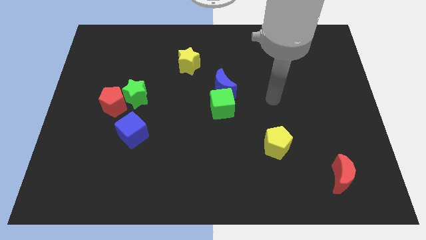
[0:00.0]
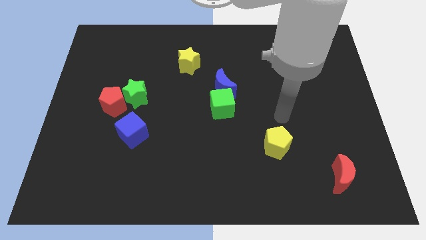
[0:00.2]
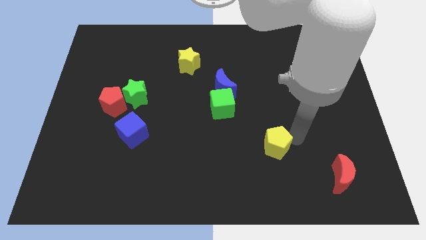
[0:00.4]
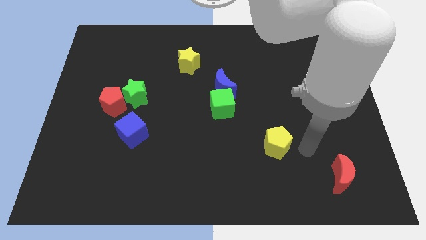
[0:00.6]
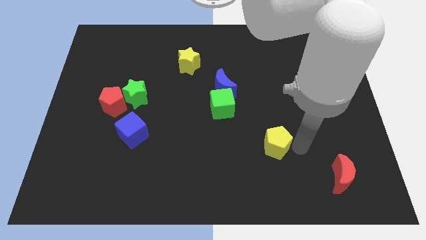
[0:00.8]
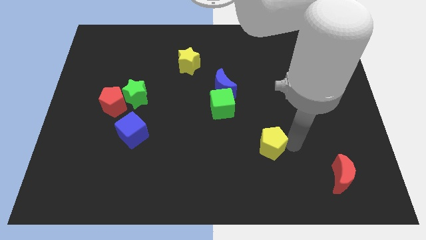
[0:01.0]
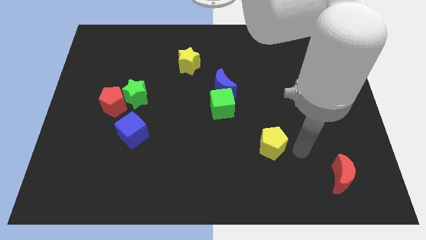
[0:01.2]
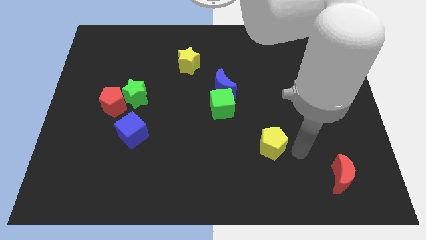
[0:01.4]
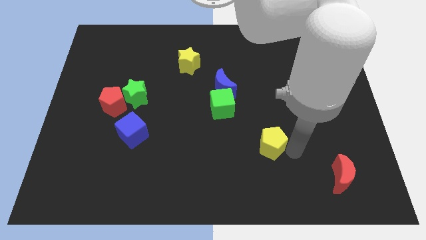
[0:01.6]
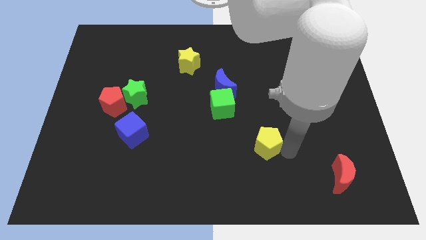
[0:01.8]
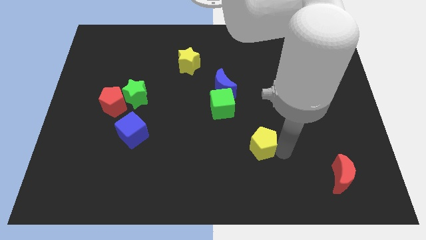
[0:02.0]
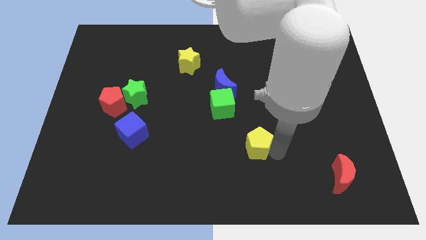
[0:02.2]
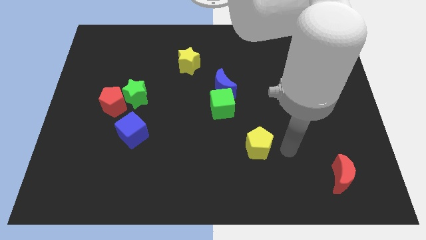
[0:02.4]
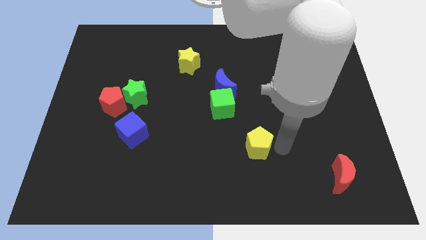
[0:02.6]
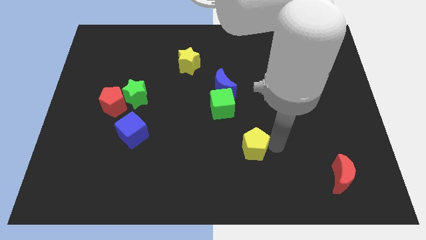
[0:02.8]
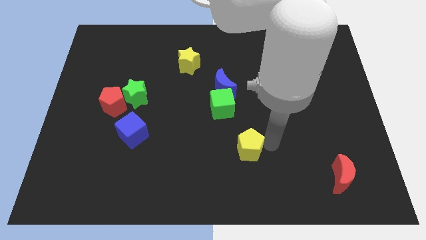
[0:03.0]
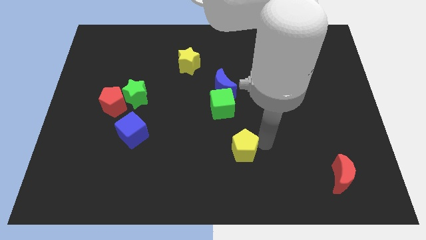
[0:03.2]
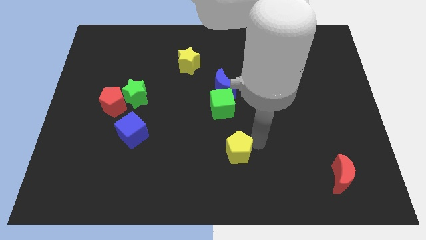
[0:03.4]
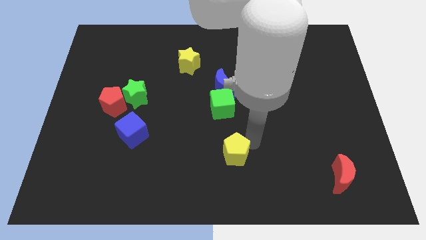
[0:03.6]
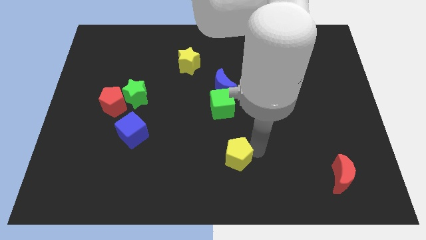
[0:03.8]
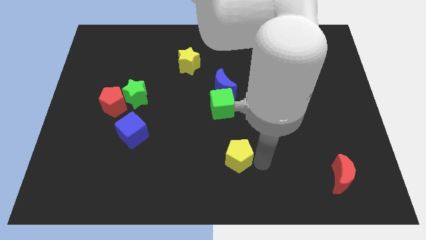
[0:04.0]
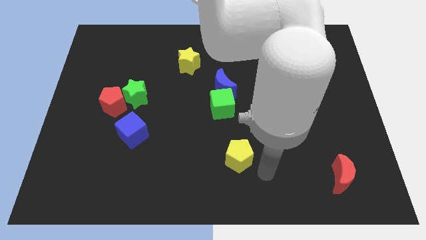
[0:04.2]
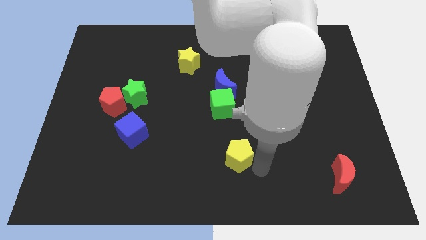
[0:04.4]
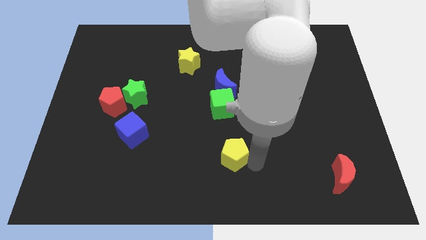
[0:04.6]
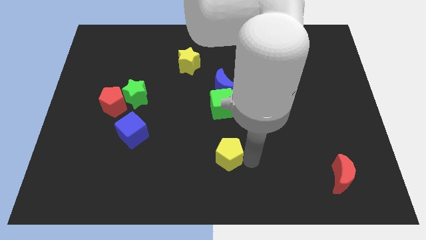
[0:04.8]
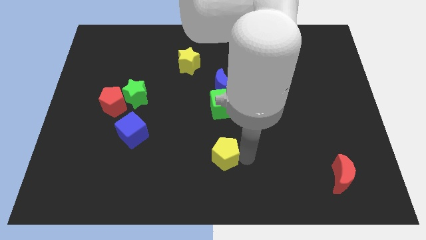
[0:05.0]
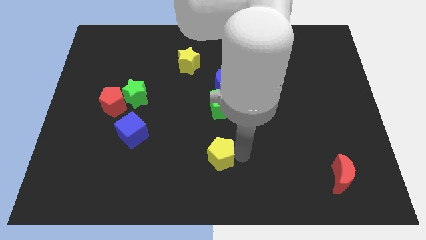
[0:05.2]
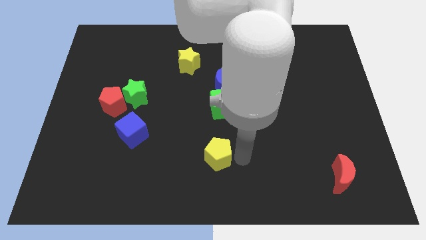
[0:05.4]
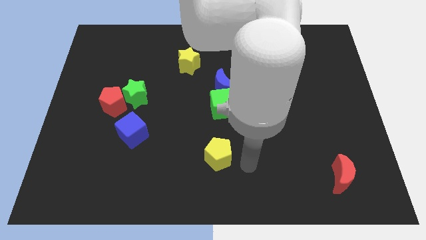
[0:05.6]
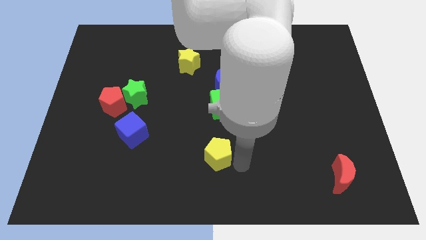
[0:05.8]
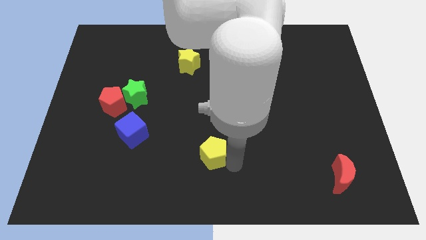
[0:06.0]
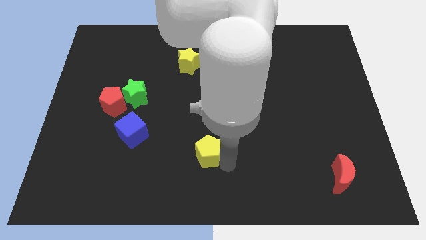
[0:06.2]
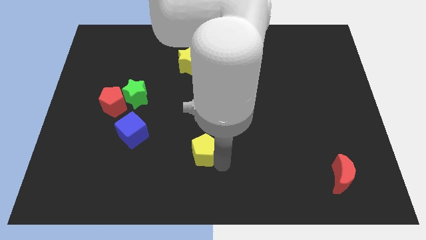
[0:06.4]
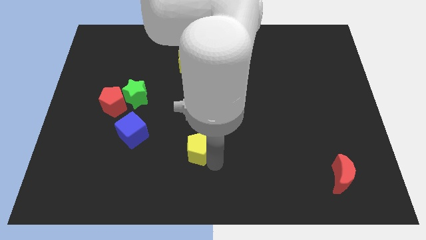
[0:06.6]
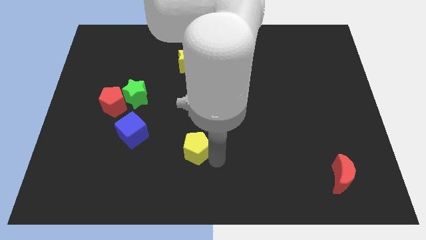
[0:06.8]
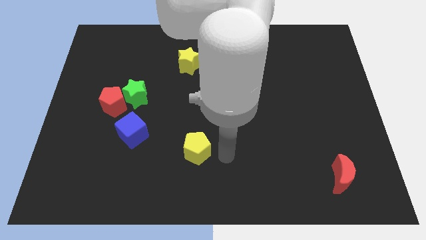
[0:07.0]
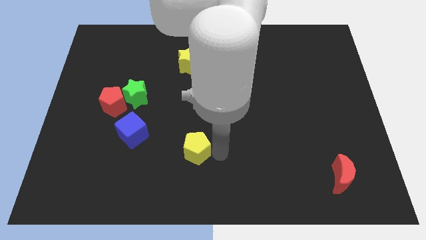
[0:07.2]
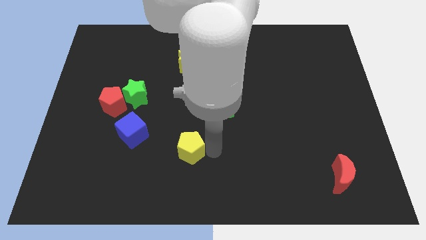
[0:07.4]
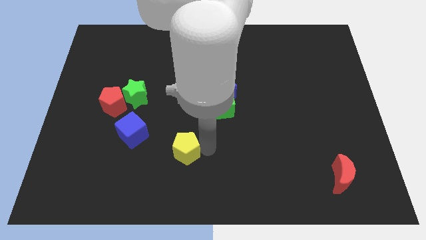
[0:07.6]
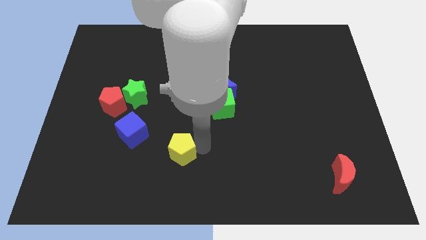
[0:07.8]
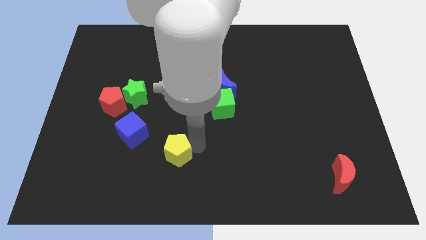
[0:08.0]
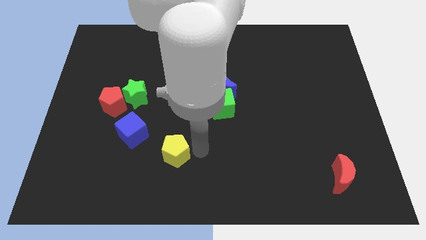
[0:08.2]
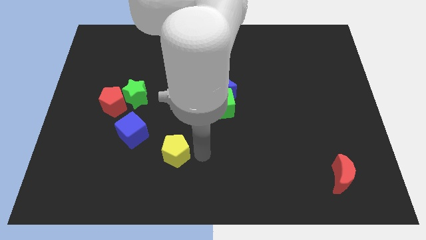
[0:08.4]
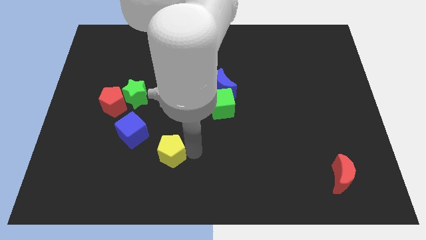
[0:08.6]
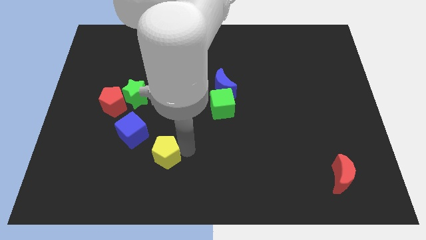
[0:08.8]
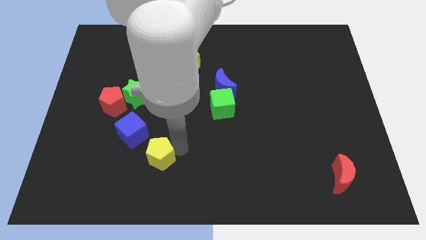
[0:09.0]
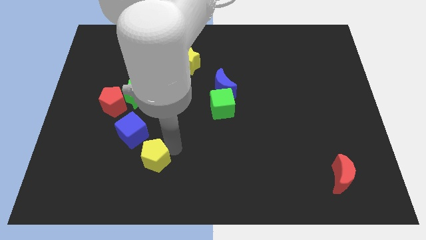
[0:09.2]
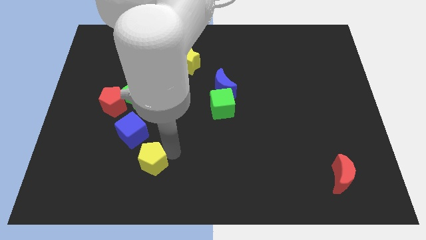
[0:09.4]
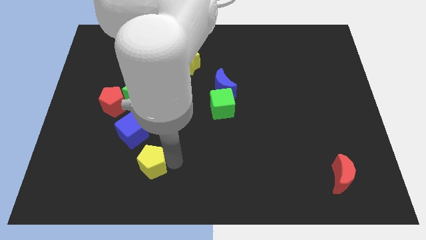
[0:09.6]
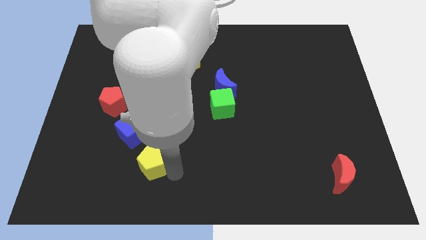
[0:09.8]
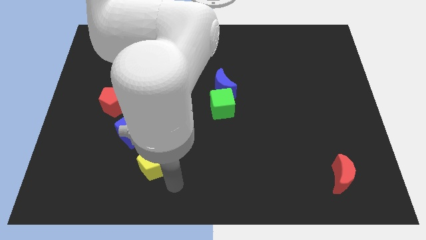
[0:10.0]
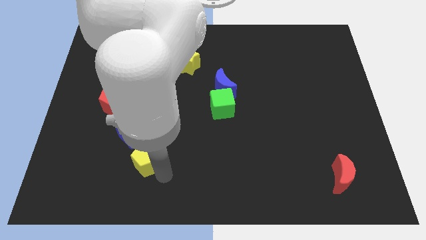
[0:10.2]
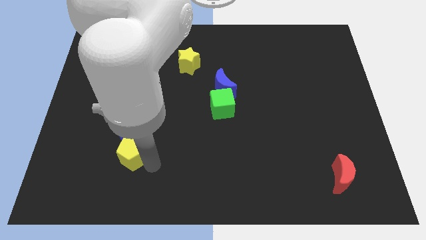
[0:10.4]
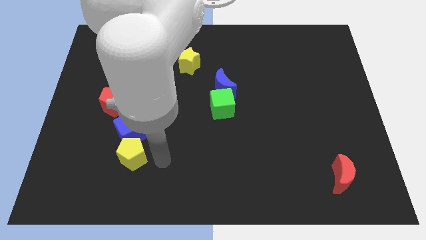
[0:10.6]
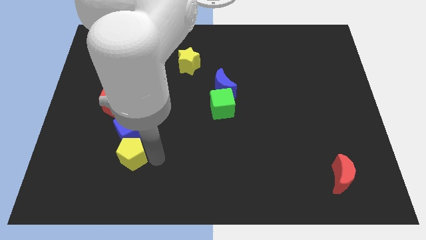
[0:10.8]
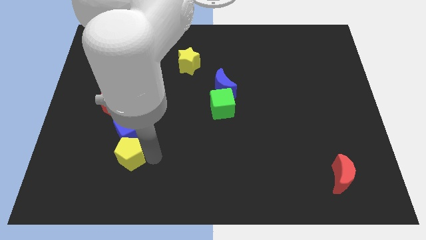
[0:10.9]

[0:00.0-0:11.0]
put the yellow pentagon diagonally down and to the left of the blue cube

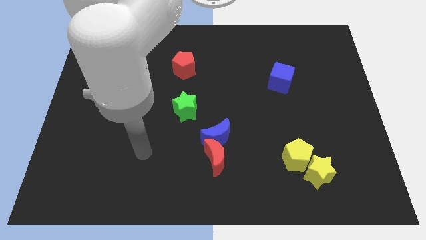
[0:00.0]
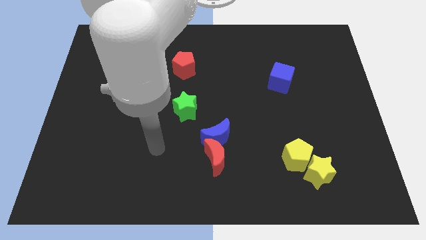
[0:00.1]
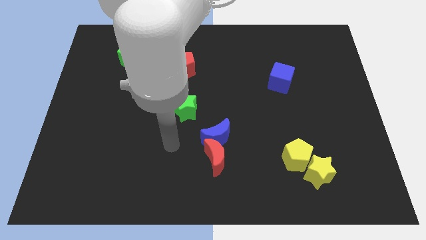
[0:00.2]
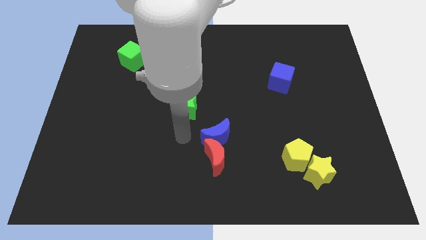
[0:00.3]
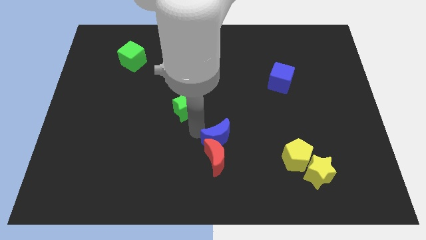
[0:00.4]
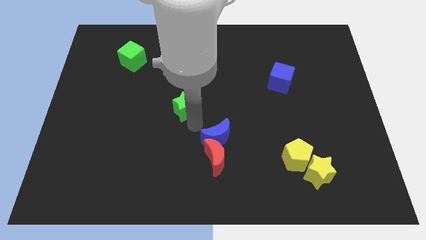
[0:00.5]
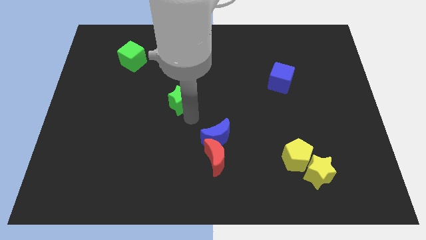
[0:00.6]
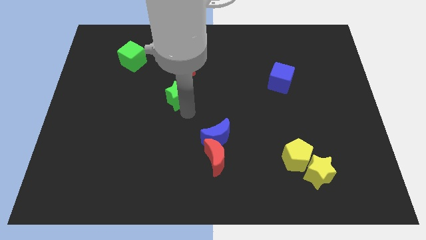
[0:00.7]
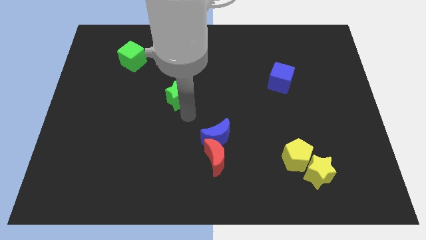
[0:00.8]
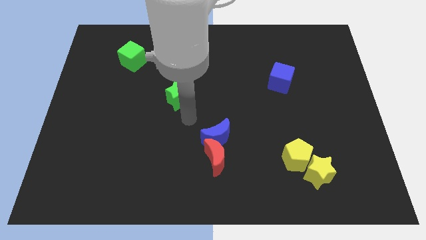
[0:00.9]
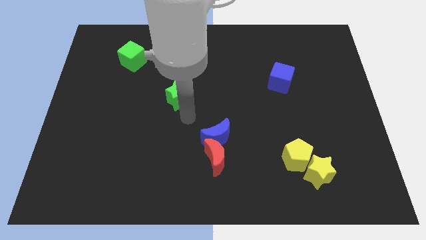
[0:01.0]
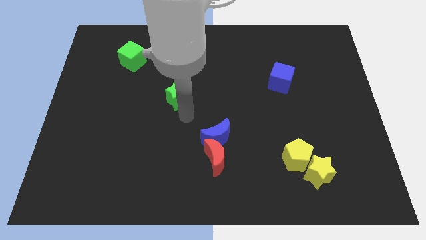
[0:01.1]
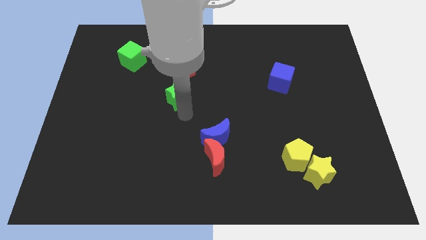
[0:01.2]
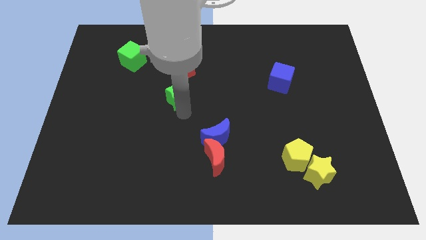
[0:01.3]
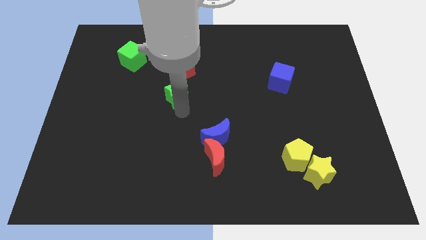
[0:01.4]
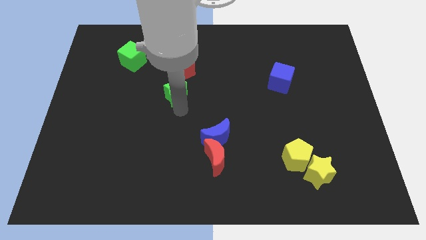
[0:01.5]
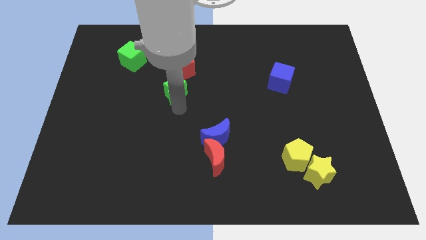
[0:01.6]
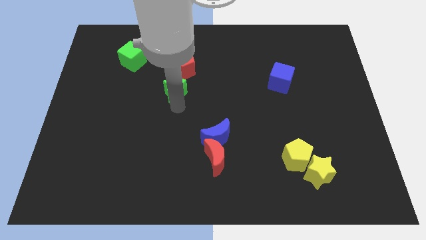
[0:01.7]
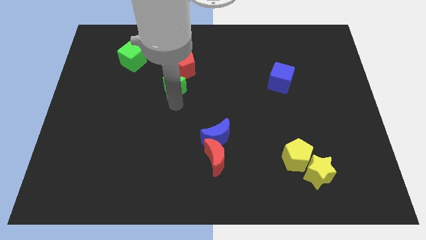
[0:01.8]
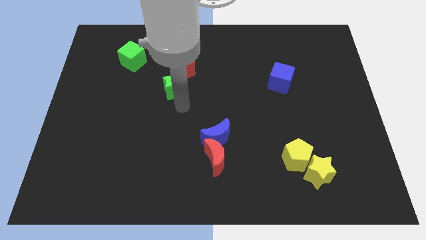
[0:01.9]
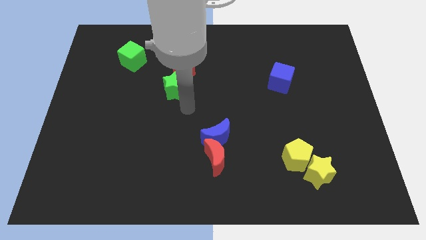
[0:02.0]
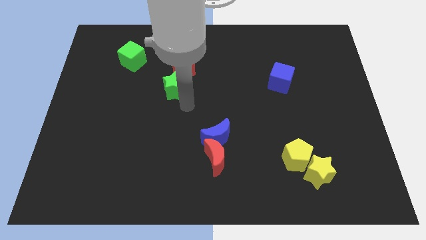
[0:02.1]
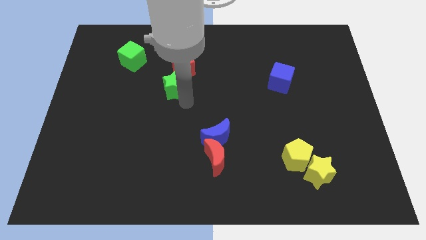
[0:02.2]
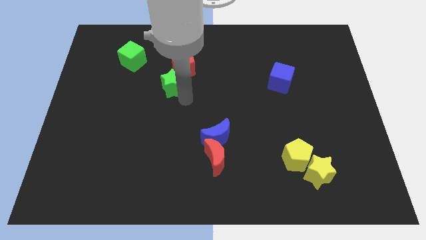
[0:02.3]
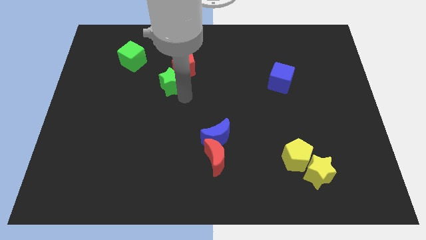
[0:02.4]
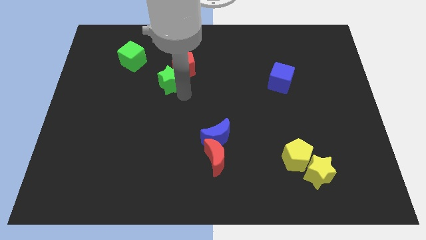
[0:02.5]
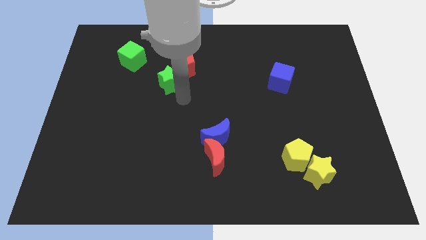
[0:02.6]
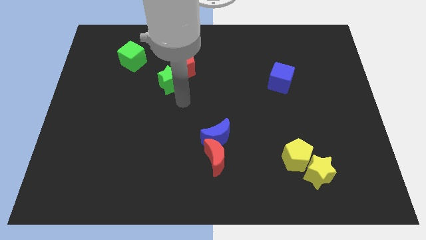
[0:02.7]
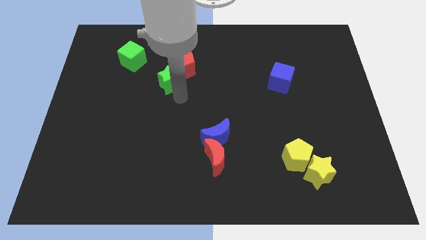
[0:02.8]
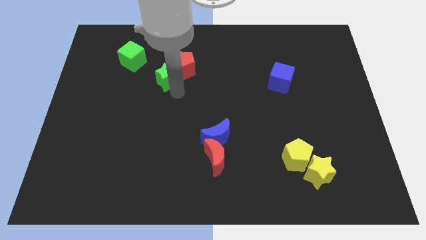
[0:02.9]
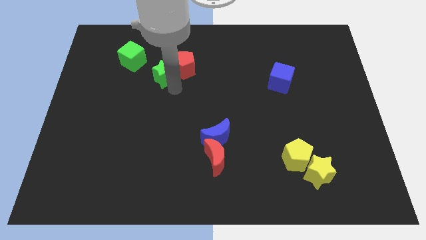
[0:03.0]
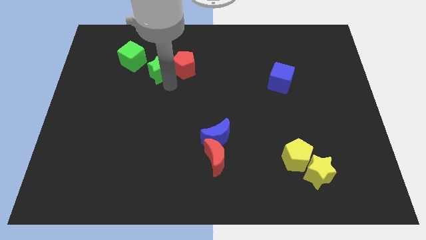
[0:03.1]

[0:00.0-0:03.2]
slide the green star to the right side of the green cube
